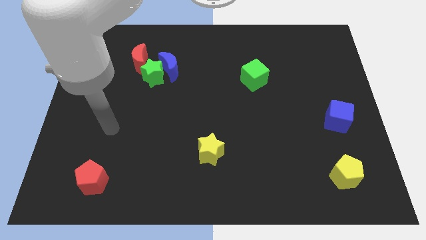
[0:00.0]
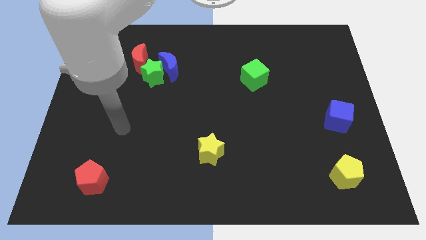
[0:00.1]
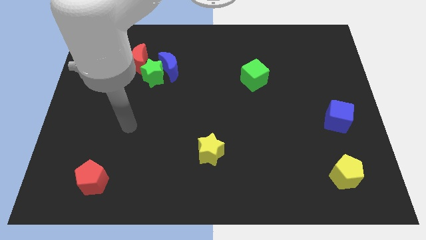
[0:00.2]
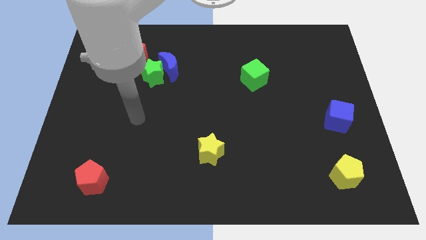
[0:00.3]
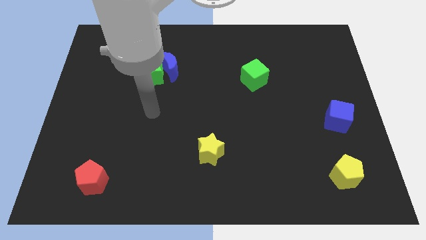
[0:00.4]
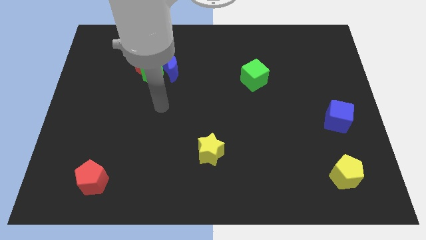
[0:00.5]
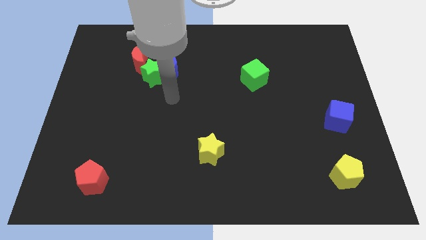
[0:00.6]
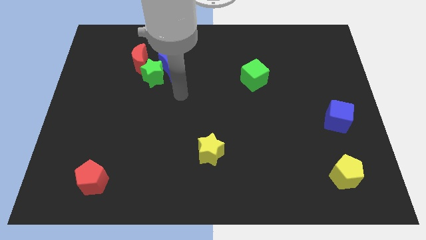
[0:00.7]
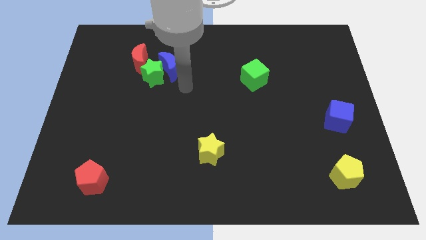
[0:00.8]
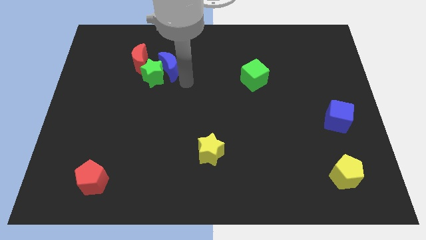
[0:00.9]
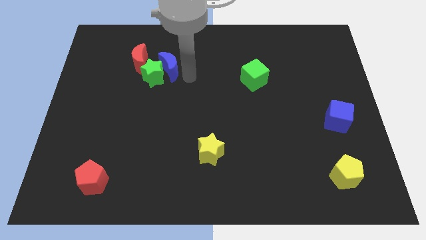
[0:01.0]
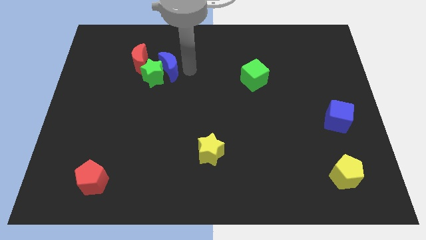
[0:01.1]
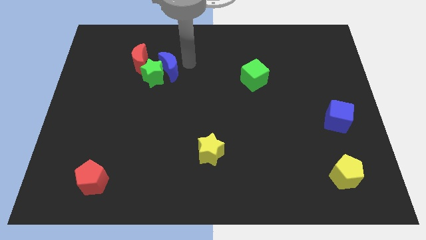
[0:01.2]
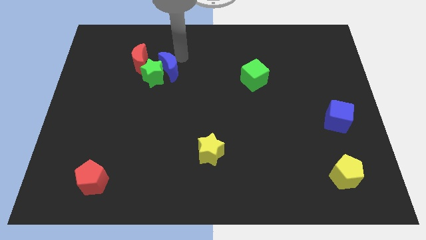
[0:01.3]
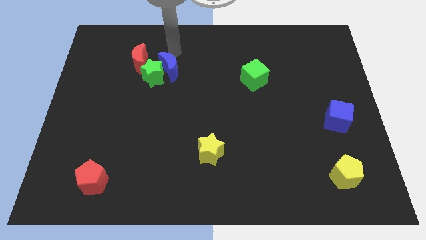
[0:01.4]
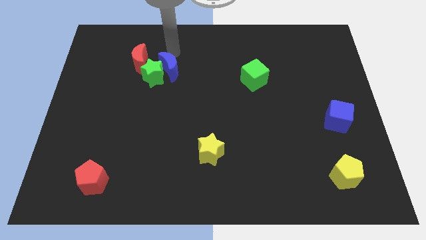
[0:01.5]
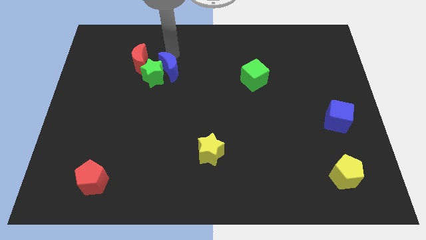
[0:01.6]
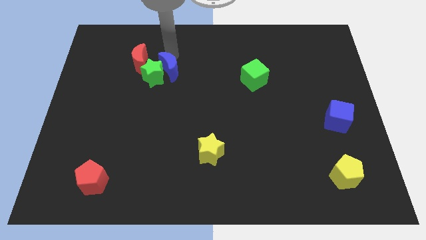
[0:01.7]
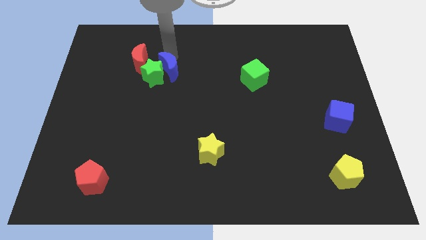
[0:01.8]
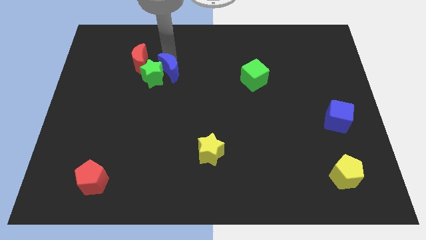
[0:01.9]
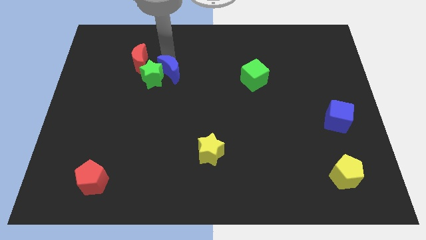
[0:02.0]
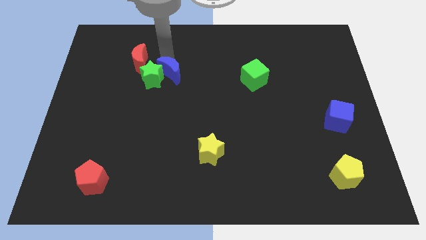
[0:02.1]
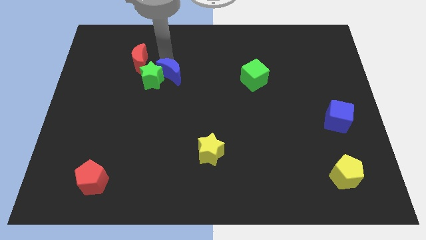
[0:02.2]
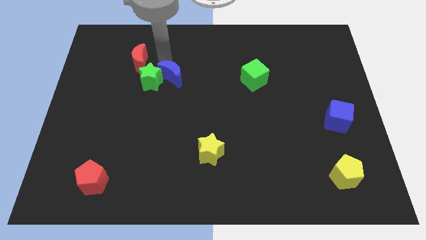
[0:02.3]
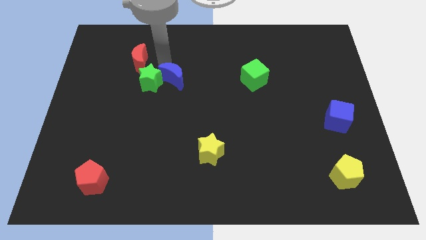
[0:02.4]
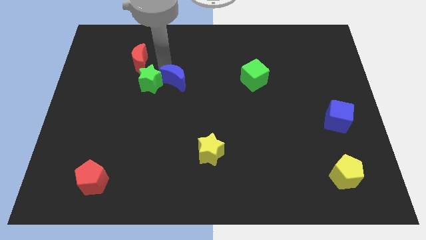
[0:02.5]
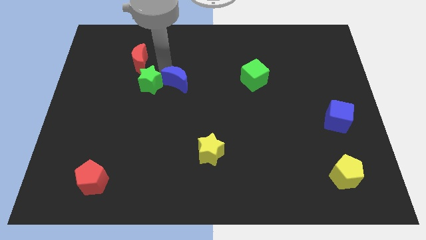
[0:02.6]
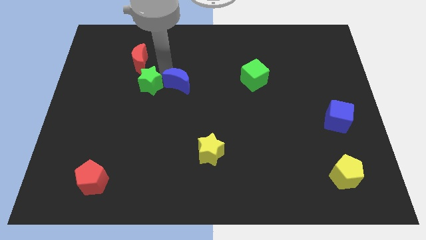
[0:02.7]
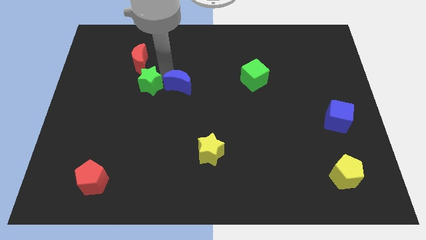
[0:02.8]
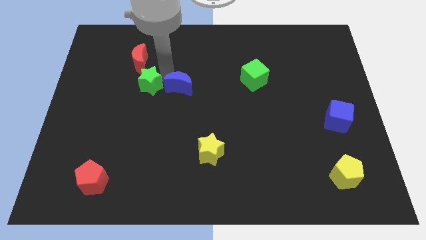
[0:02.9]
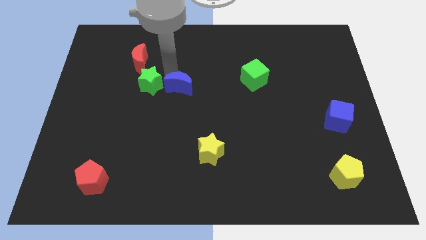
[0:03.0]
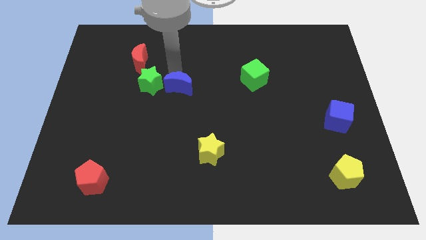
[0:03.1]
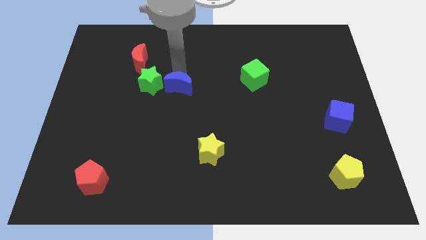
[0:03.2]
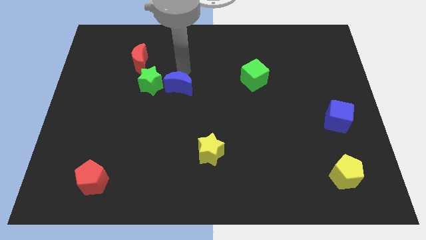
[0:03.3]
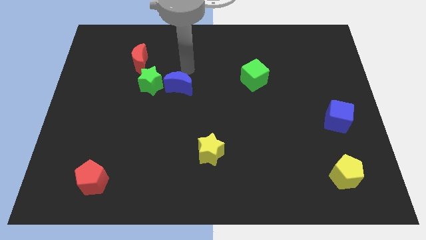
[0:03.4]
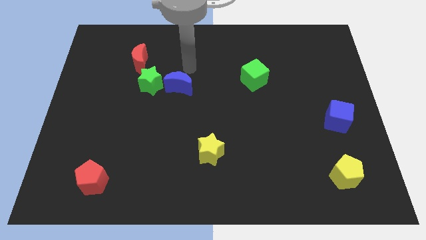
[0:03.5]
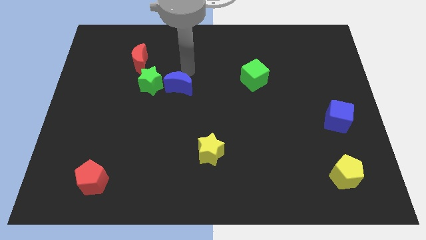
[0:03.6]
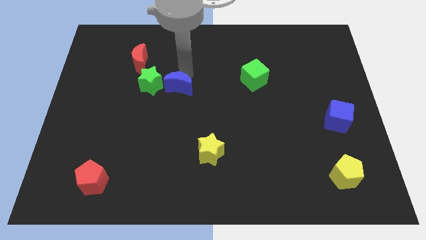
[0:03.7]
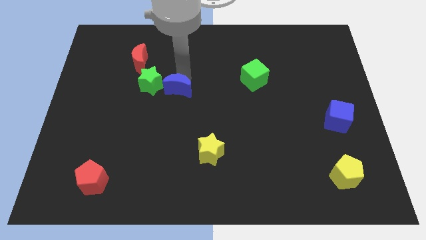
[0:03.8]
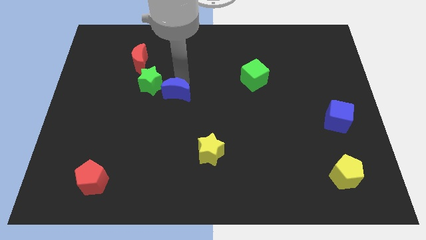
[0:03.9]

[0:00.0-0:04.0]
slightly push the blue moon down

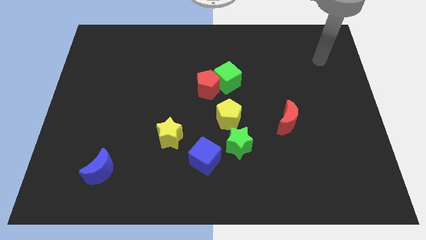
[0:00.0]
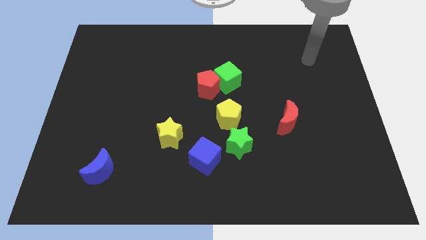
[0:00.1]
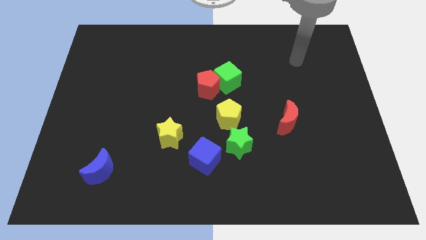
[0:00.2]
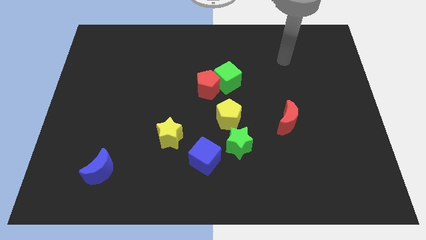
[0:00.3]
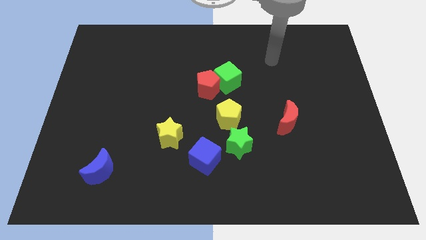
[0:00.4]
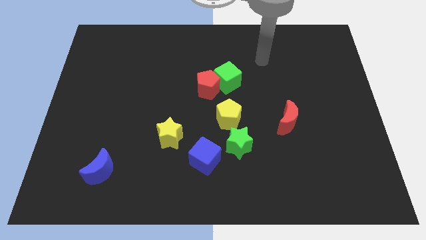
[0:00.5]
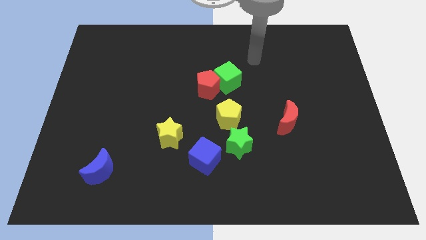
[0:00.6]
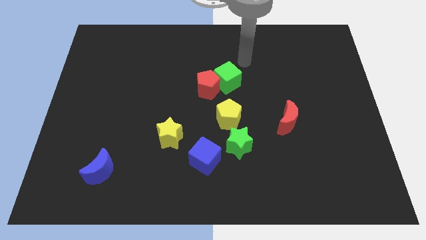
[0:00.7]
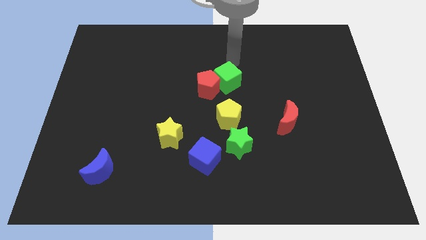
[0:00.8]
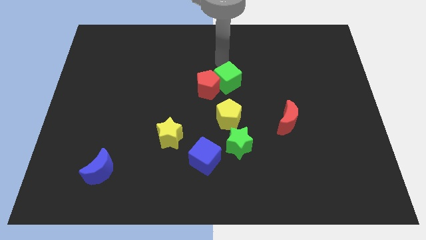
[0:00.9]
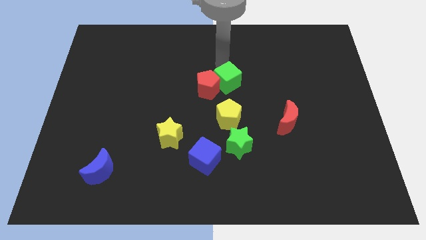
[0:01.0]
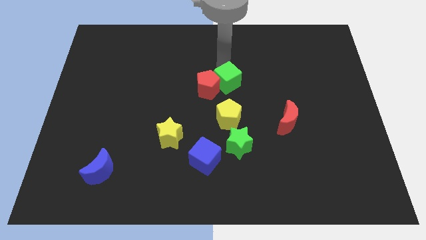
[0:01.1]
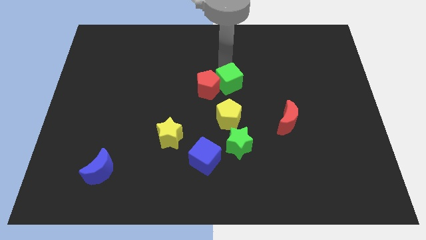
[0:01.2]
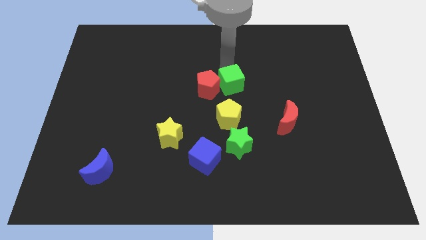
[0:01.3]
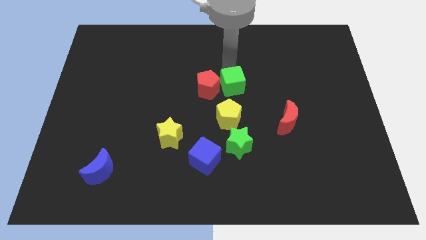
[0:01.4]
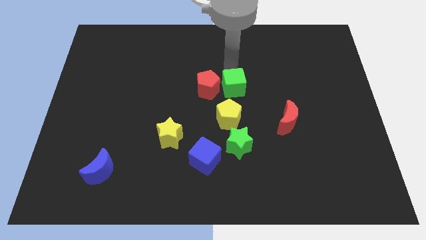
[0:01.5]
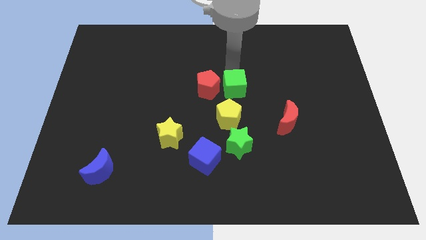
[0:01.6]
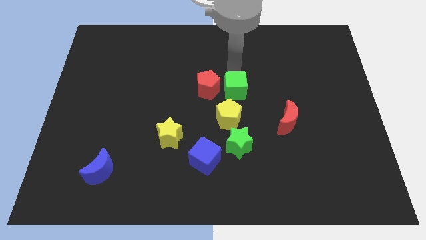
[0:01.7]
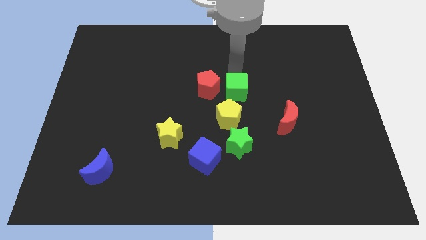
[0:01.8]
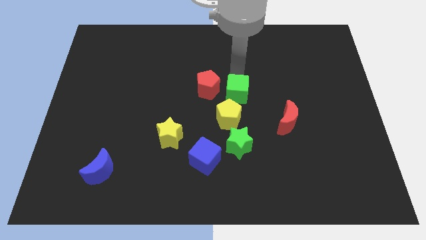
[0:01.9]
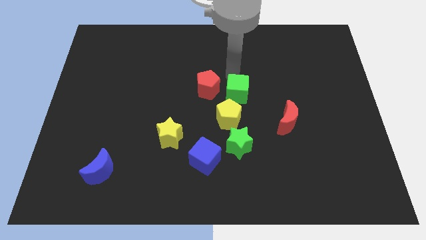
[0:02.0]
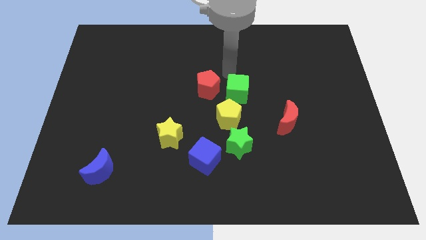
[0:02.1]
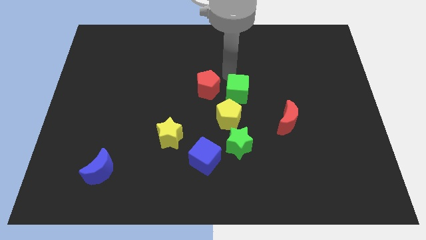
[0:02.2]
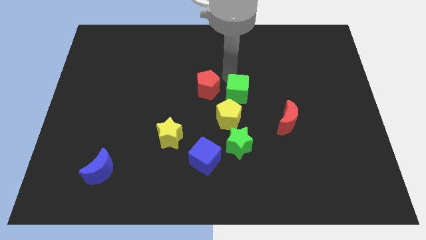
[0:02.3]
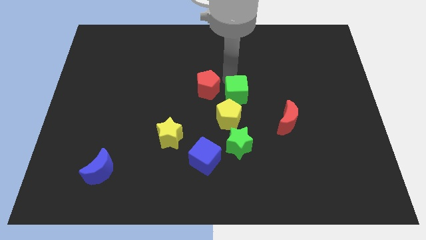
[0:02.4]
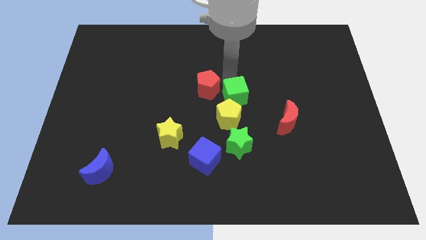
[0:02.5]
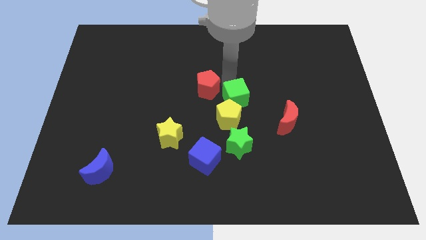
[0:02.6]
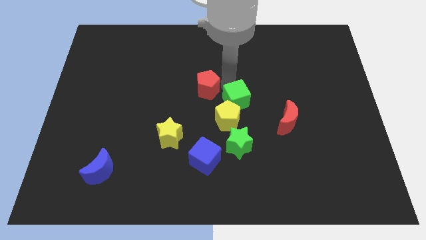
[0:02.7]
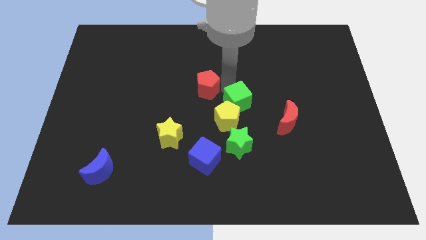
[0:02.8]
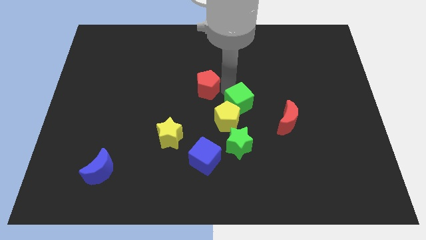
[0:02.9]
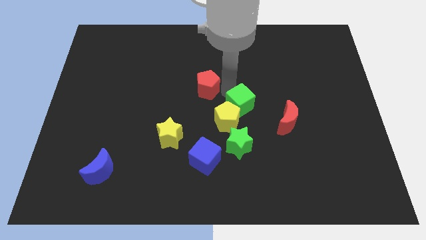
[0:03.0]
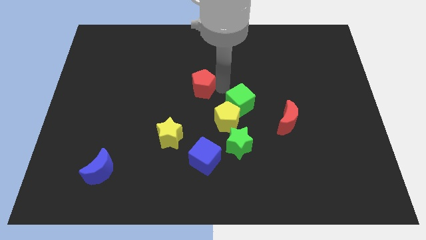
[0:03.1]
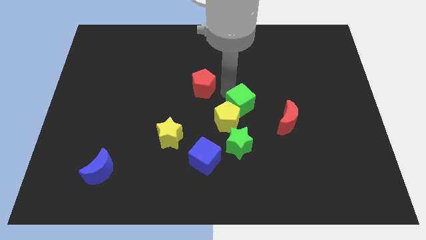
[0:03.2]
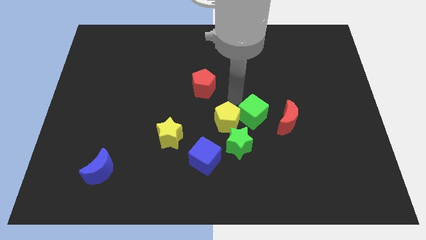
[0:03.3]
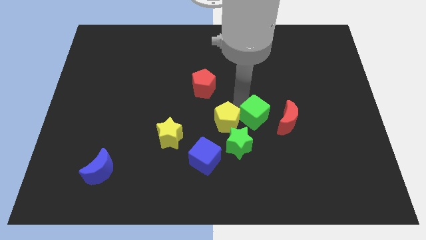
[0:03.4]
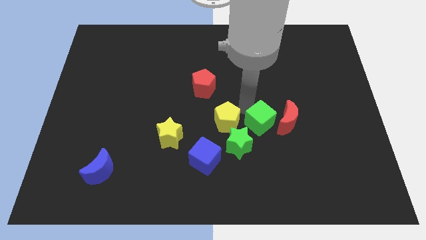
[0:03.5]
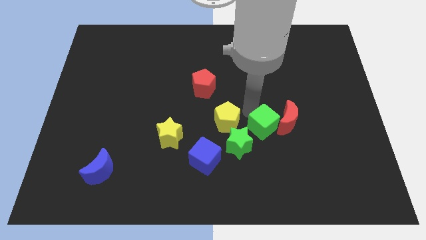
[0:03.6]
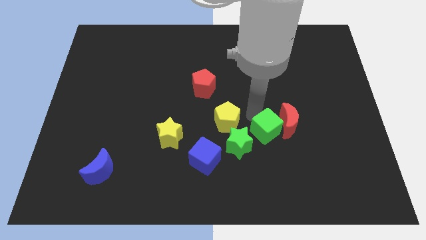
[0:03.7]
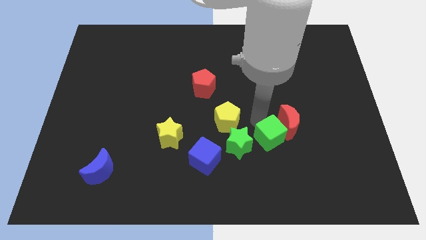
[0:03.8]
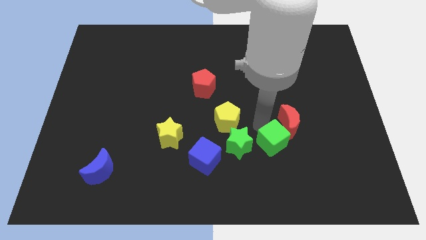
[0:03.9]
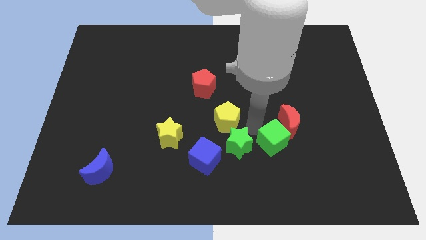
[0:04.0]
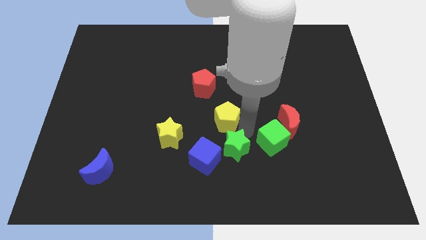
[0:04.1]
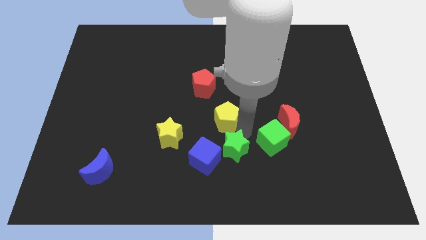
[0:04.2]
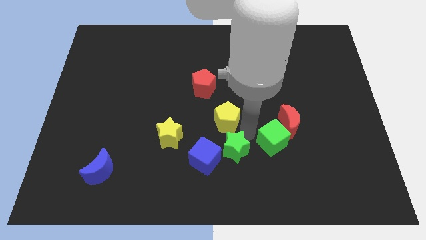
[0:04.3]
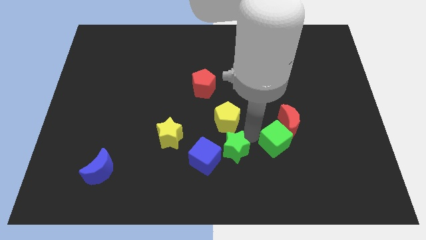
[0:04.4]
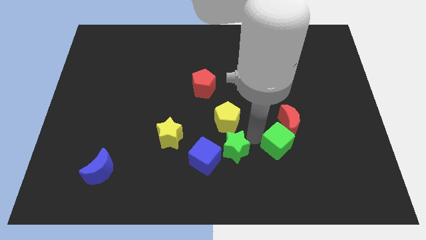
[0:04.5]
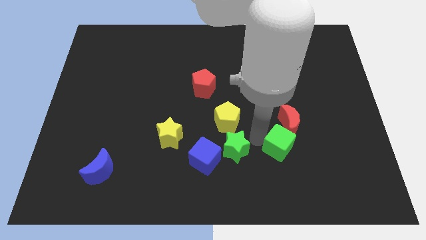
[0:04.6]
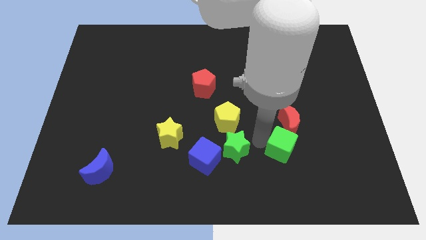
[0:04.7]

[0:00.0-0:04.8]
push the green cube down and right
